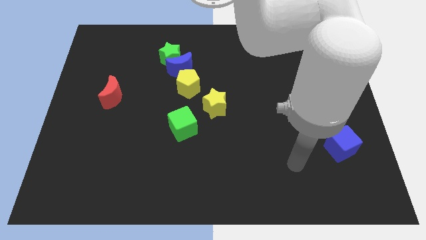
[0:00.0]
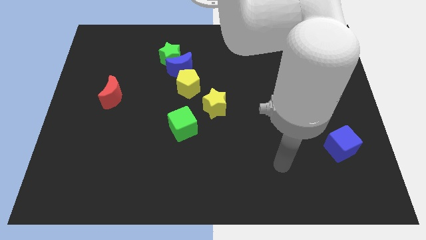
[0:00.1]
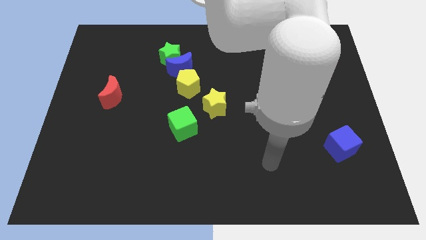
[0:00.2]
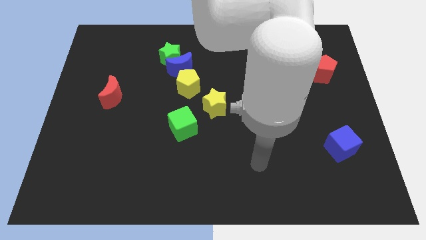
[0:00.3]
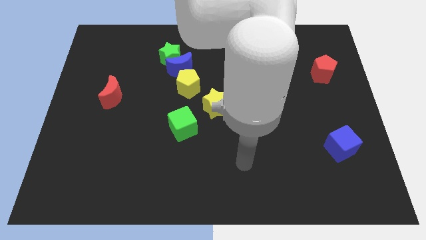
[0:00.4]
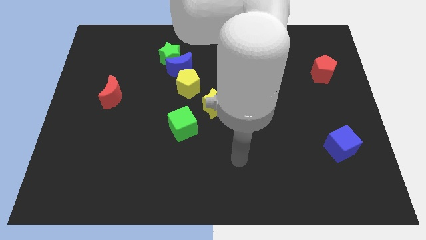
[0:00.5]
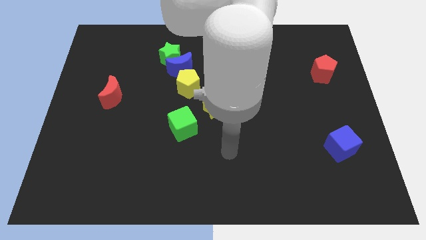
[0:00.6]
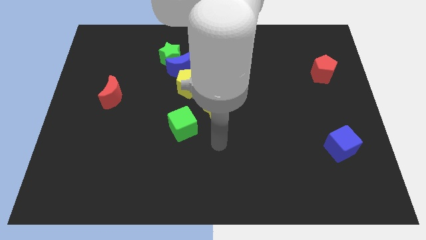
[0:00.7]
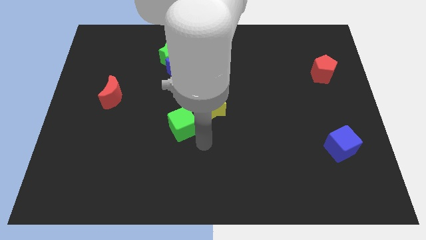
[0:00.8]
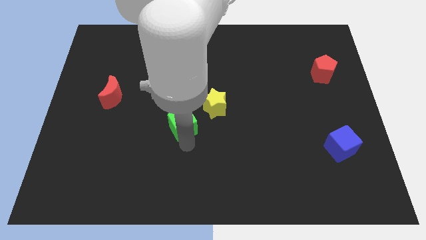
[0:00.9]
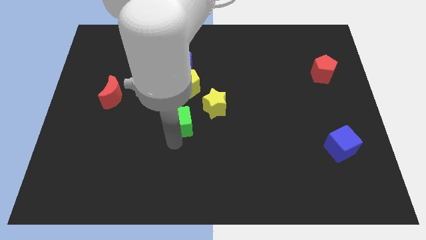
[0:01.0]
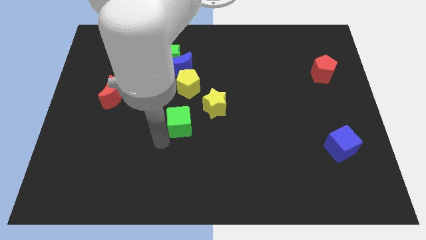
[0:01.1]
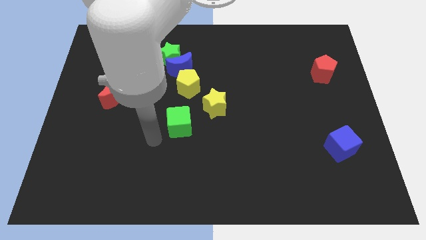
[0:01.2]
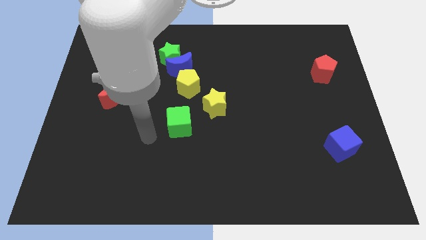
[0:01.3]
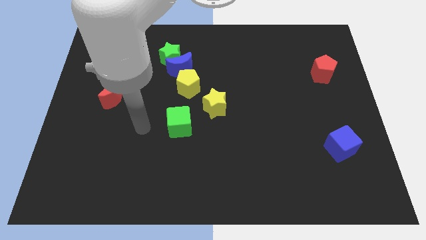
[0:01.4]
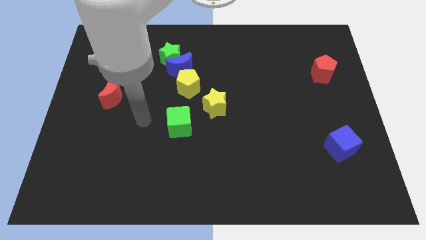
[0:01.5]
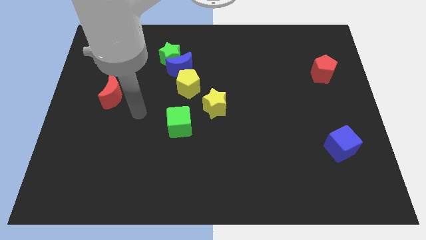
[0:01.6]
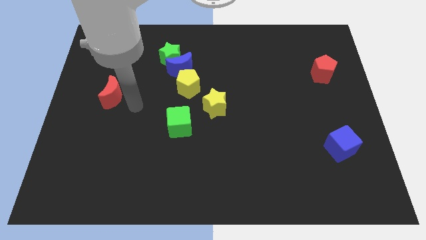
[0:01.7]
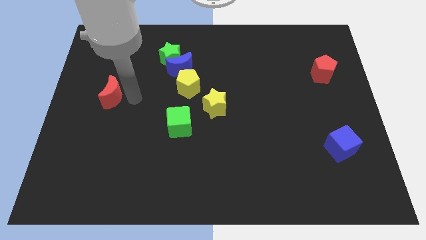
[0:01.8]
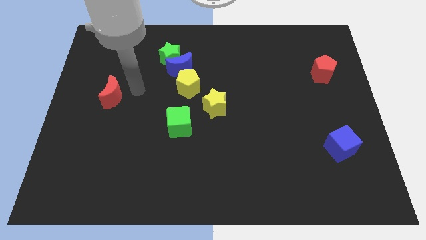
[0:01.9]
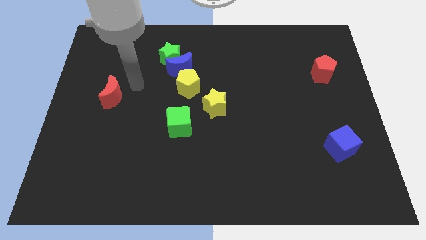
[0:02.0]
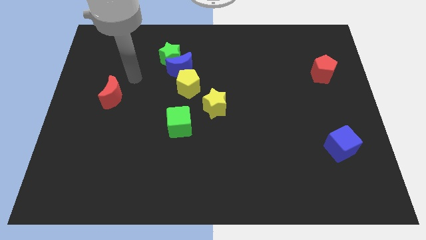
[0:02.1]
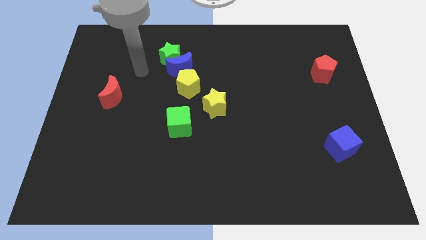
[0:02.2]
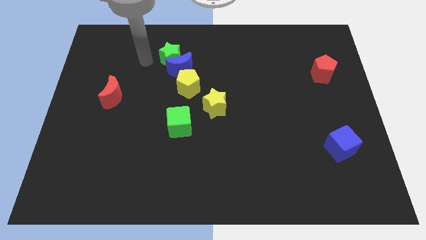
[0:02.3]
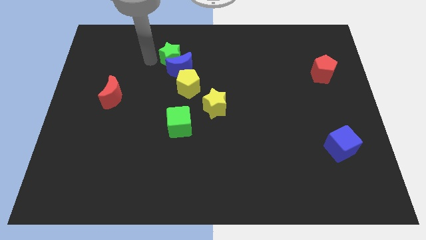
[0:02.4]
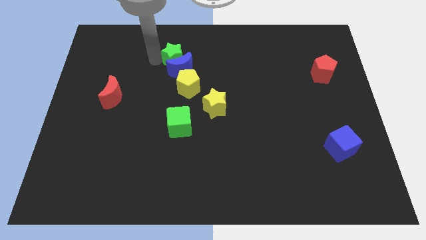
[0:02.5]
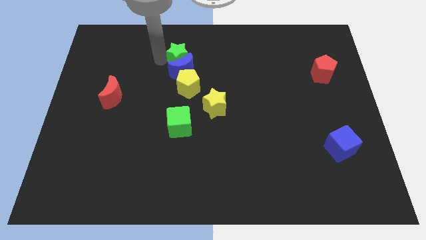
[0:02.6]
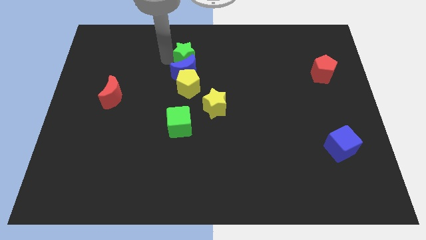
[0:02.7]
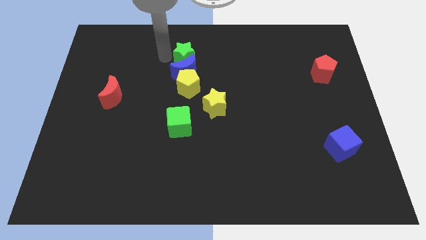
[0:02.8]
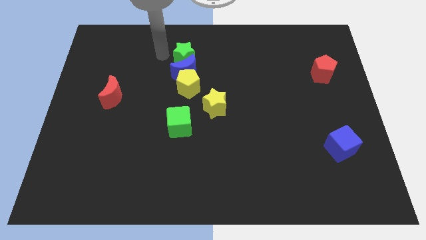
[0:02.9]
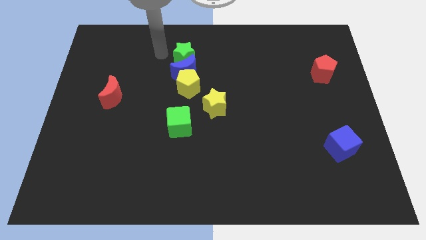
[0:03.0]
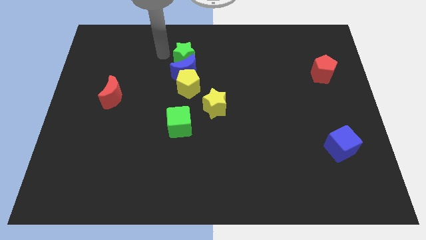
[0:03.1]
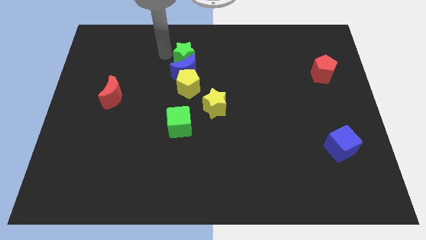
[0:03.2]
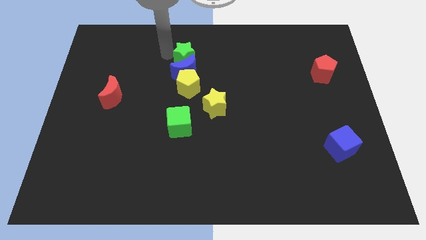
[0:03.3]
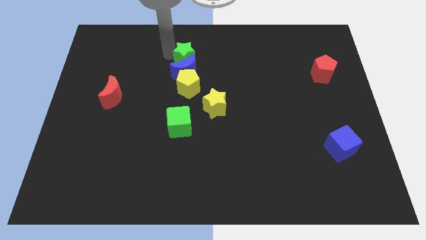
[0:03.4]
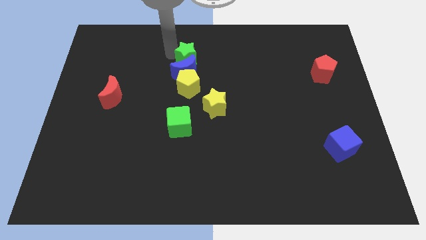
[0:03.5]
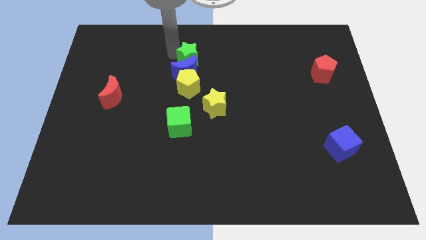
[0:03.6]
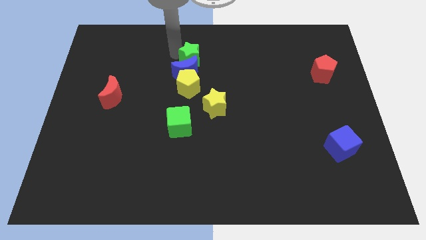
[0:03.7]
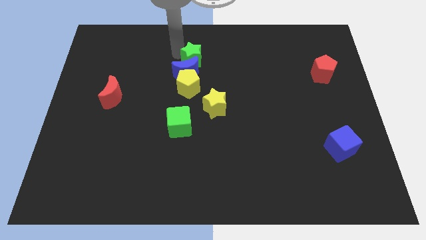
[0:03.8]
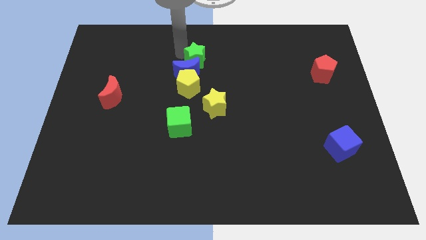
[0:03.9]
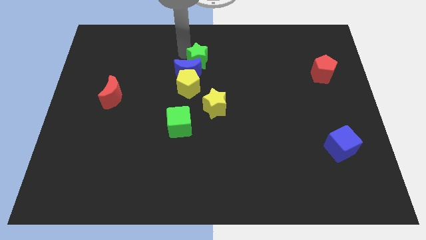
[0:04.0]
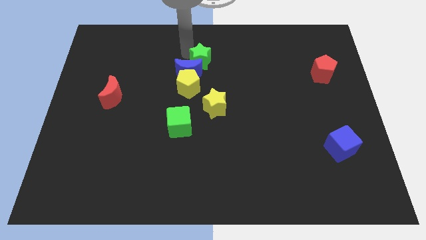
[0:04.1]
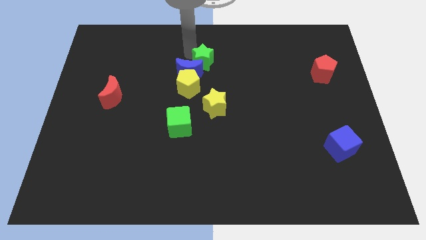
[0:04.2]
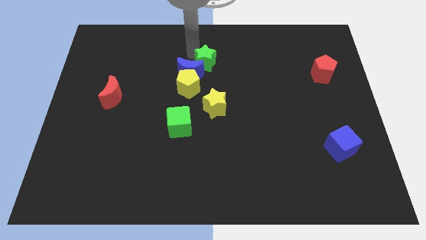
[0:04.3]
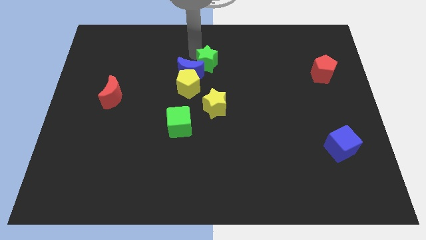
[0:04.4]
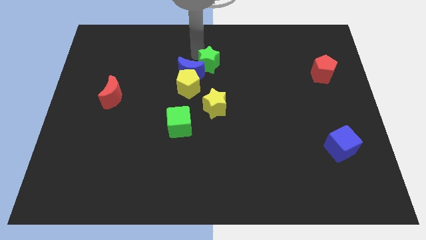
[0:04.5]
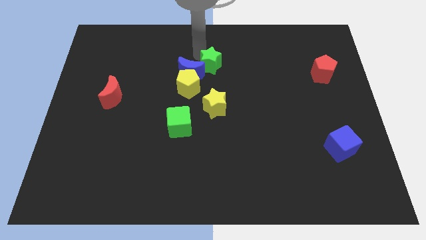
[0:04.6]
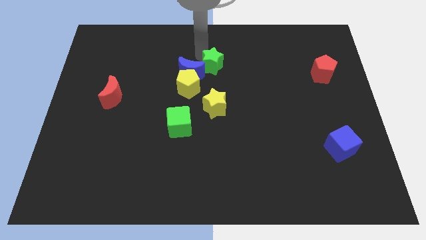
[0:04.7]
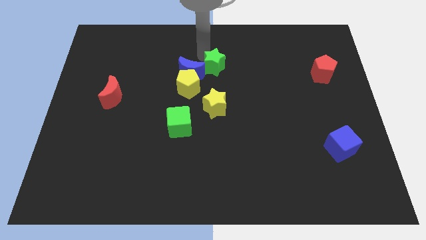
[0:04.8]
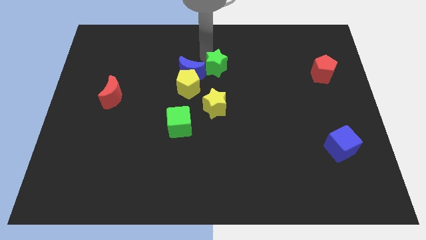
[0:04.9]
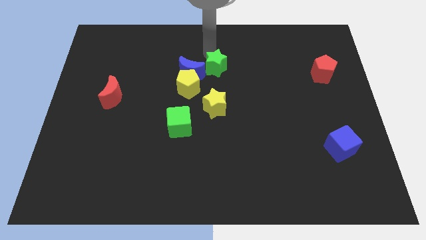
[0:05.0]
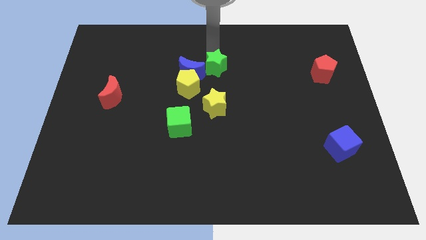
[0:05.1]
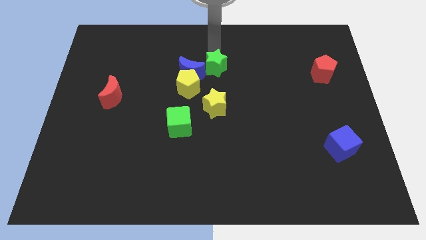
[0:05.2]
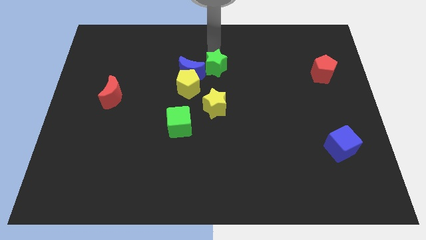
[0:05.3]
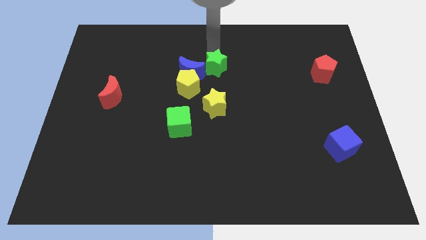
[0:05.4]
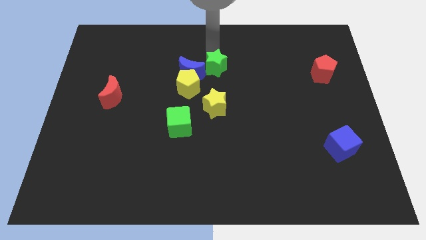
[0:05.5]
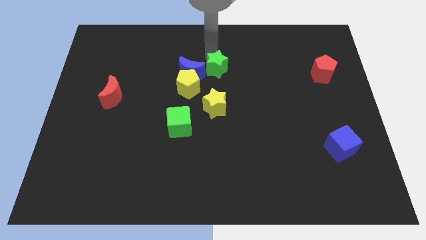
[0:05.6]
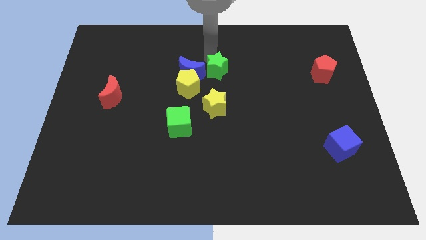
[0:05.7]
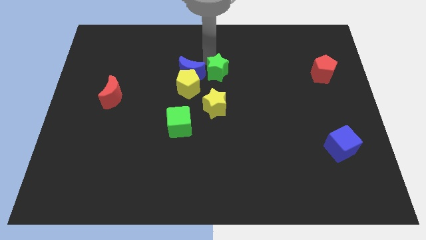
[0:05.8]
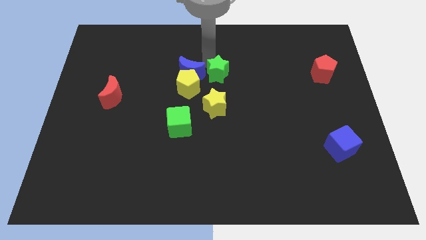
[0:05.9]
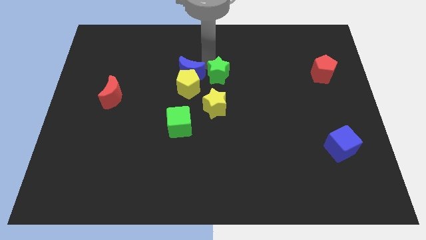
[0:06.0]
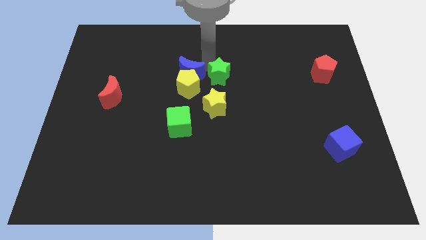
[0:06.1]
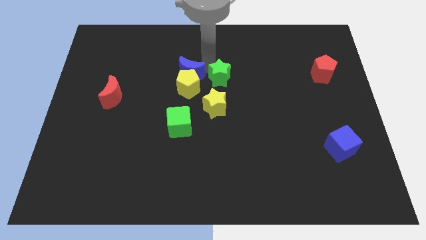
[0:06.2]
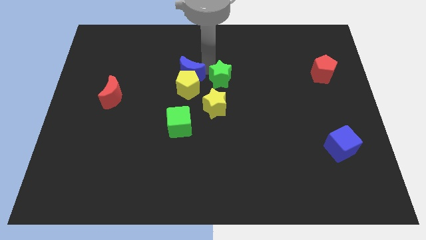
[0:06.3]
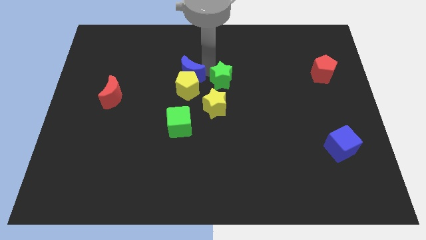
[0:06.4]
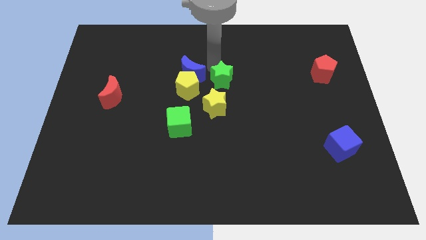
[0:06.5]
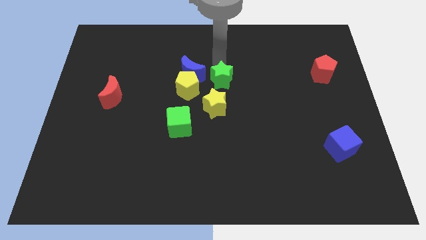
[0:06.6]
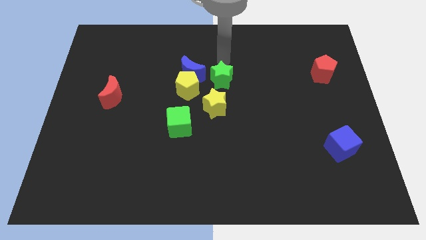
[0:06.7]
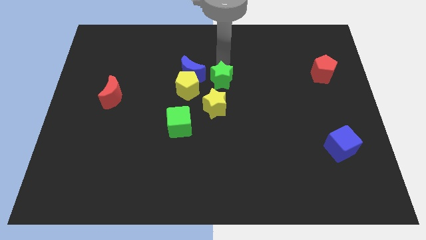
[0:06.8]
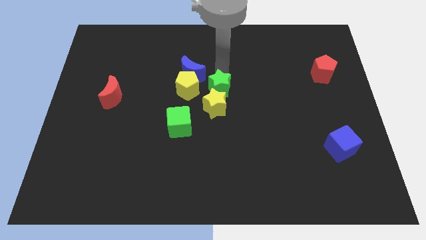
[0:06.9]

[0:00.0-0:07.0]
slide the green star close to the yellow star
